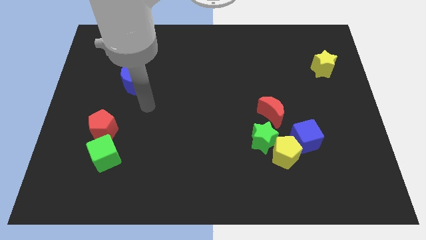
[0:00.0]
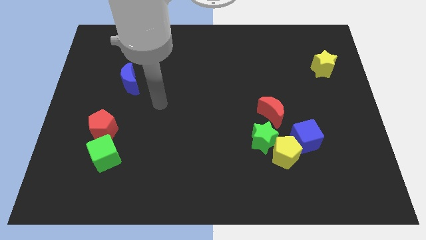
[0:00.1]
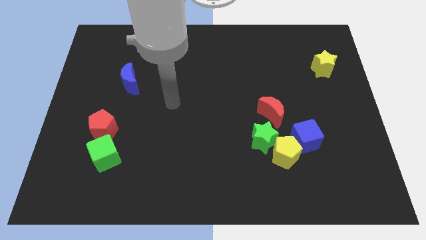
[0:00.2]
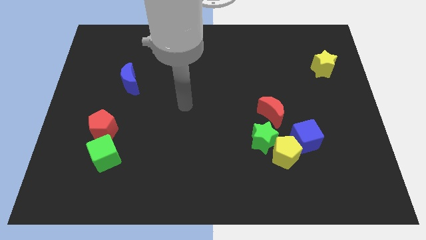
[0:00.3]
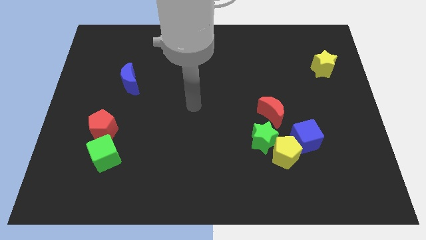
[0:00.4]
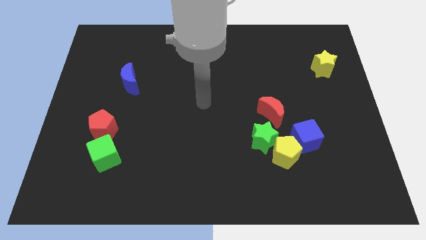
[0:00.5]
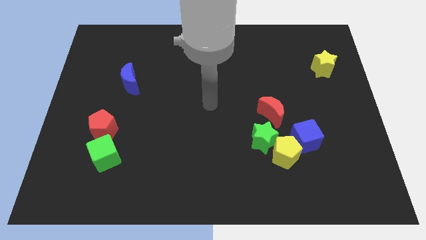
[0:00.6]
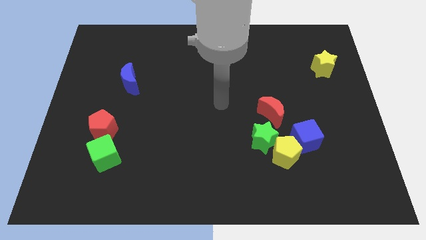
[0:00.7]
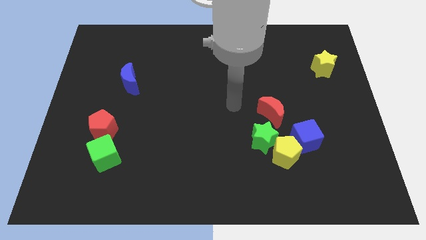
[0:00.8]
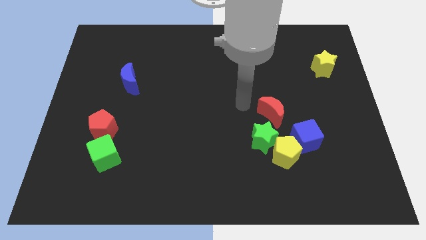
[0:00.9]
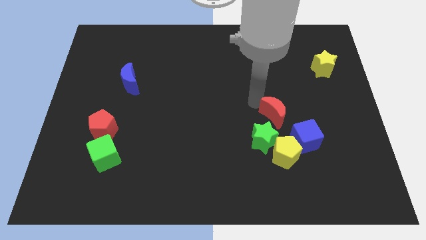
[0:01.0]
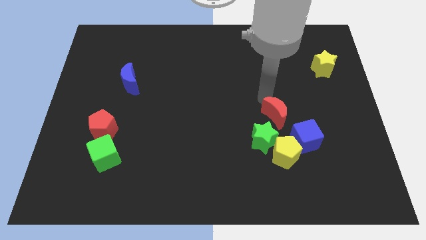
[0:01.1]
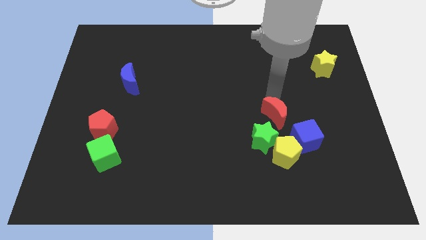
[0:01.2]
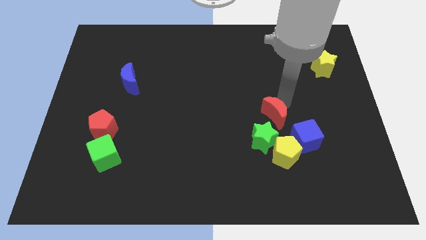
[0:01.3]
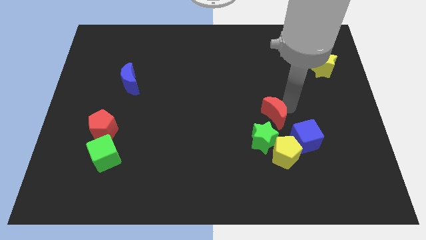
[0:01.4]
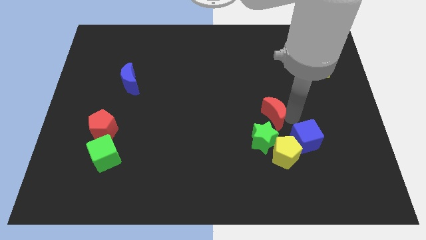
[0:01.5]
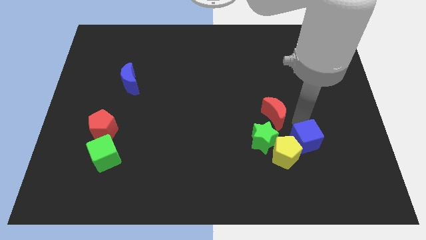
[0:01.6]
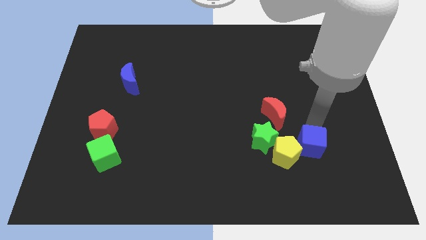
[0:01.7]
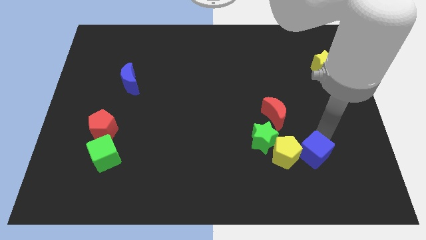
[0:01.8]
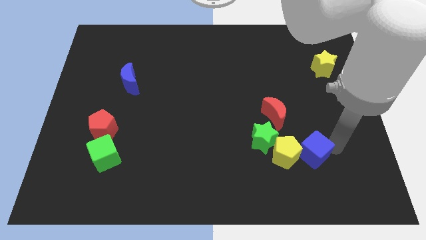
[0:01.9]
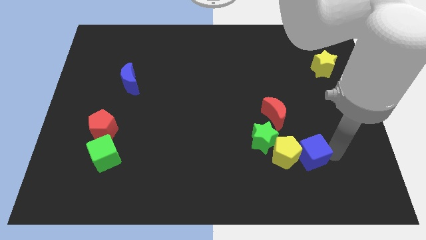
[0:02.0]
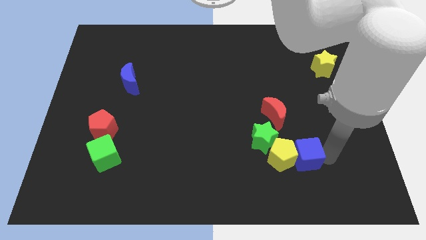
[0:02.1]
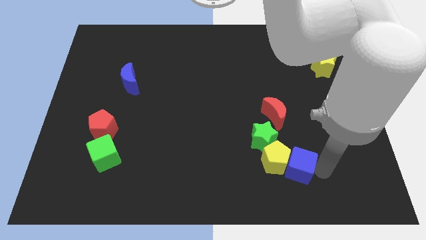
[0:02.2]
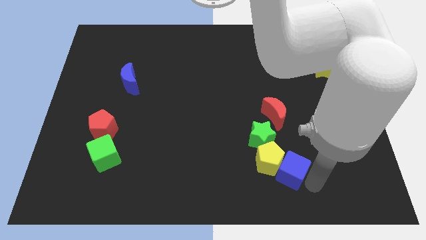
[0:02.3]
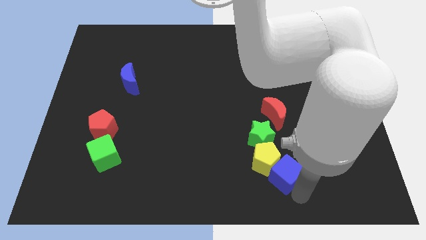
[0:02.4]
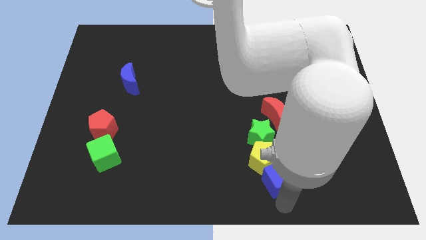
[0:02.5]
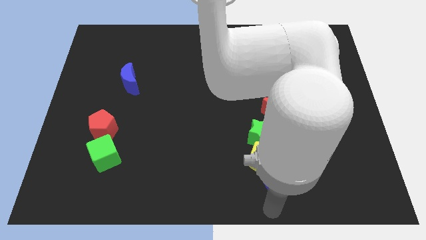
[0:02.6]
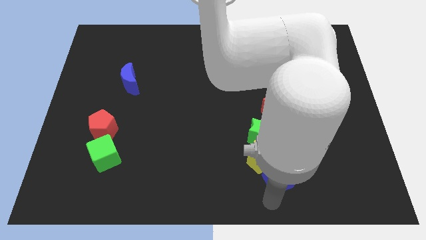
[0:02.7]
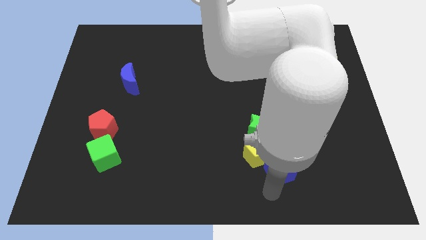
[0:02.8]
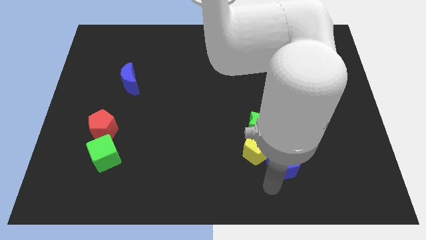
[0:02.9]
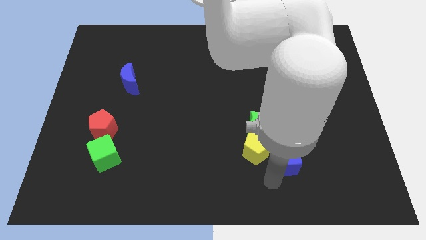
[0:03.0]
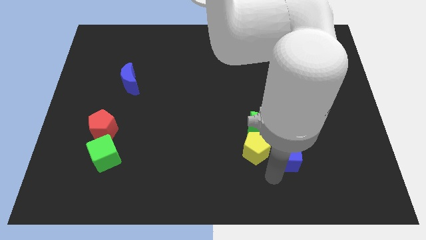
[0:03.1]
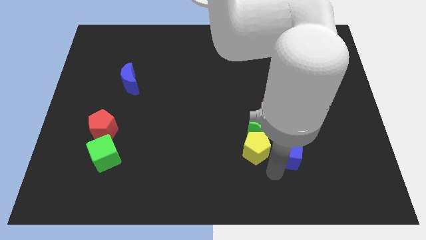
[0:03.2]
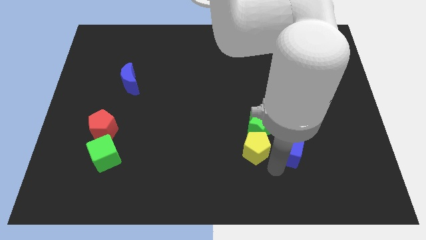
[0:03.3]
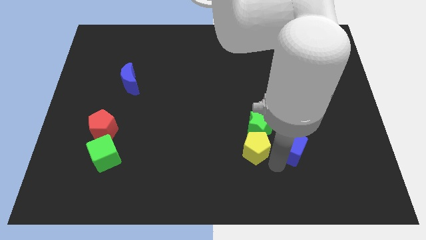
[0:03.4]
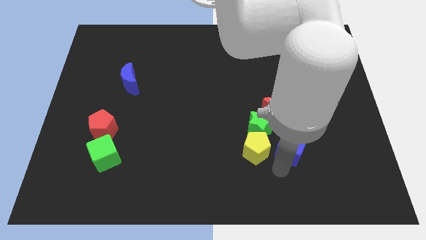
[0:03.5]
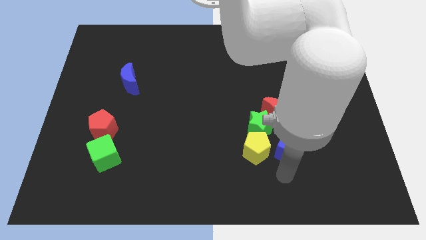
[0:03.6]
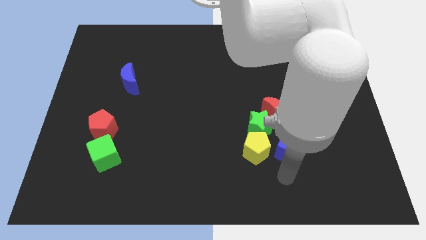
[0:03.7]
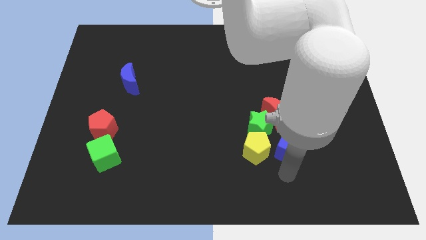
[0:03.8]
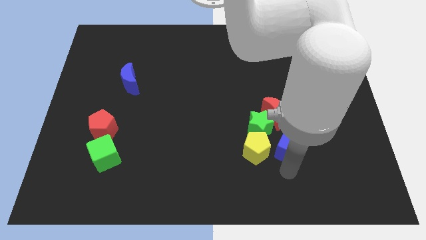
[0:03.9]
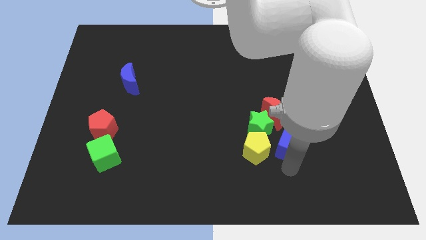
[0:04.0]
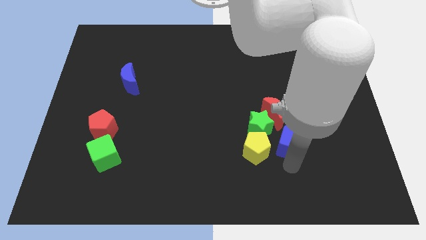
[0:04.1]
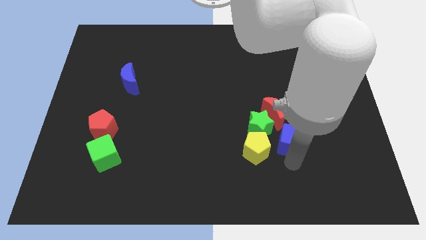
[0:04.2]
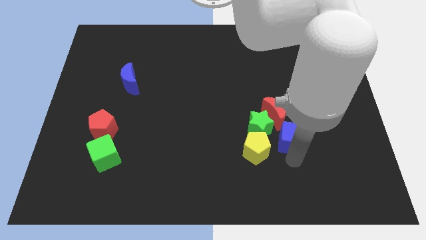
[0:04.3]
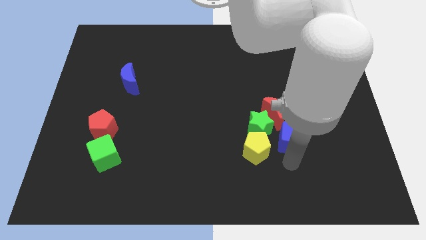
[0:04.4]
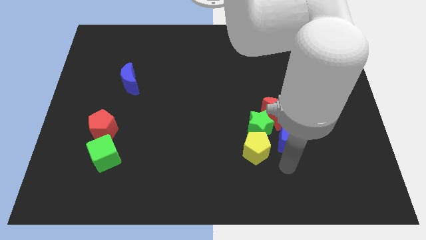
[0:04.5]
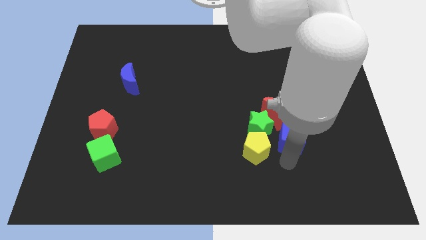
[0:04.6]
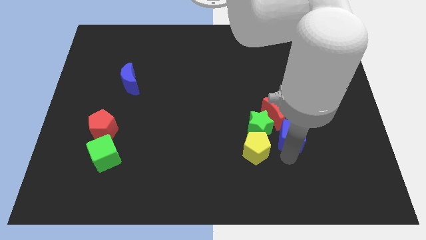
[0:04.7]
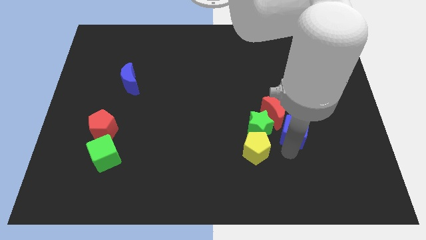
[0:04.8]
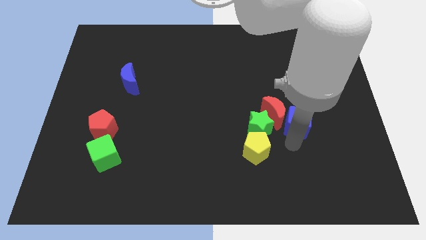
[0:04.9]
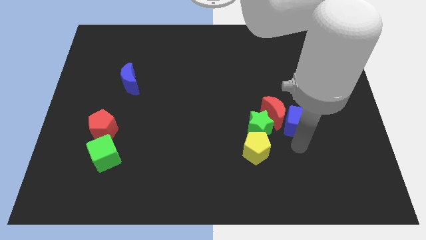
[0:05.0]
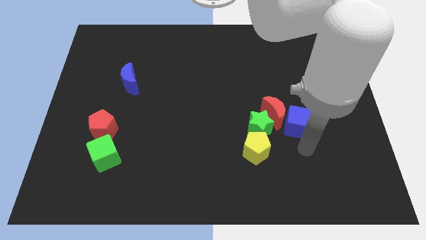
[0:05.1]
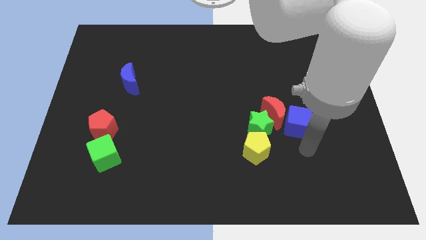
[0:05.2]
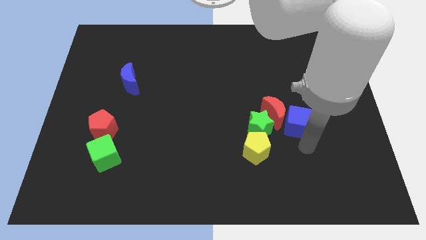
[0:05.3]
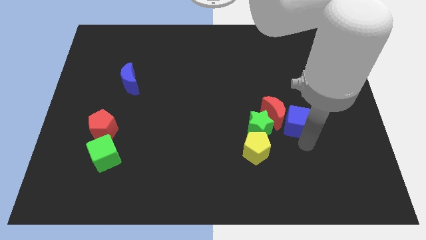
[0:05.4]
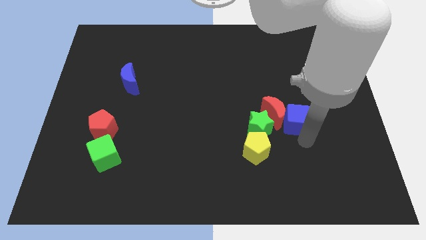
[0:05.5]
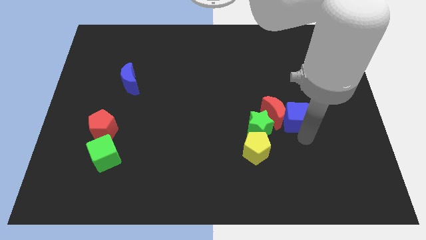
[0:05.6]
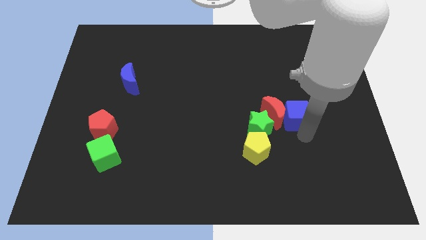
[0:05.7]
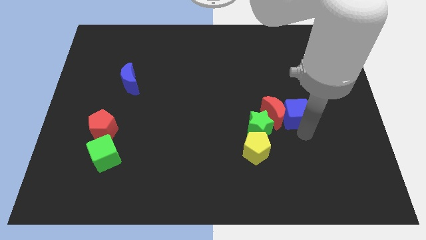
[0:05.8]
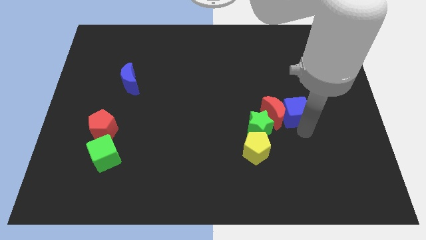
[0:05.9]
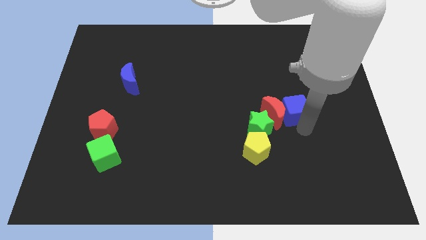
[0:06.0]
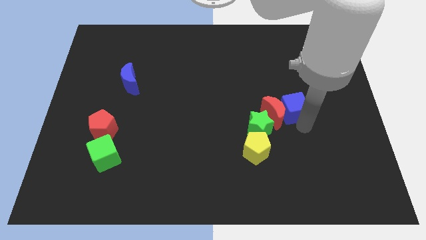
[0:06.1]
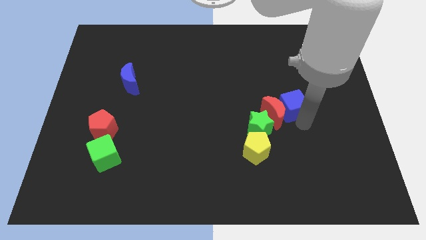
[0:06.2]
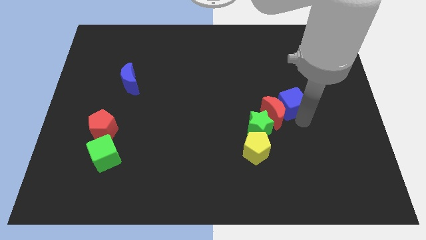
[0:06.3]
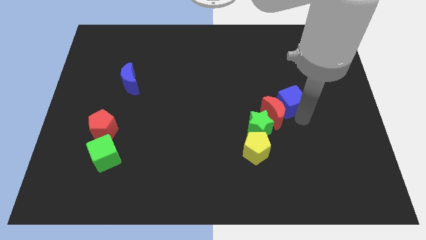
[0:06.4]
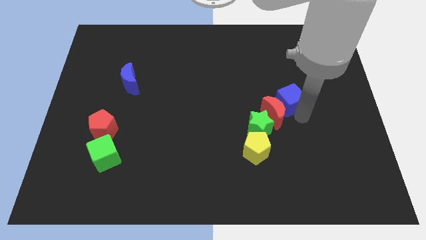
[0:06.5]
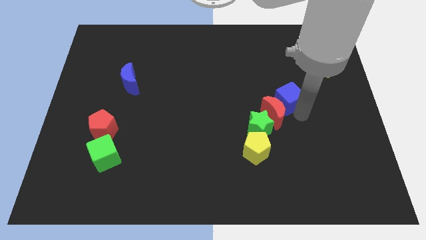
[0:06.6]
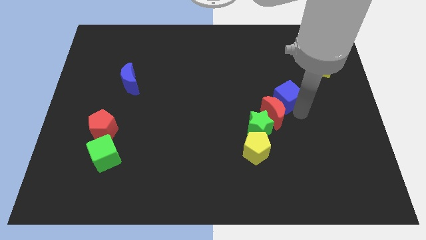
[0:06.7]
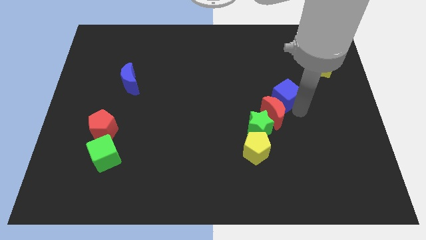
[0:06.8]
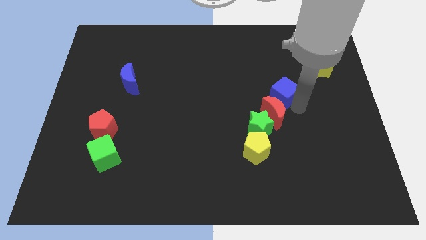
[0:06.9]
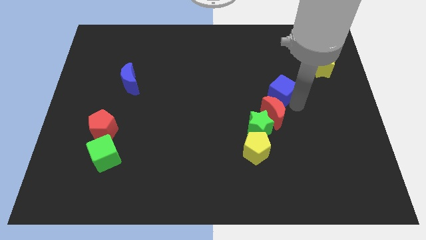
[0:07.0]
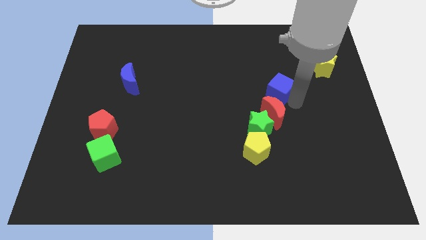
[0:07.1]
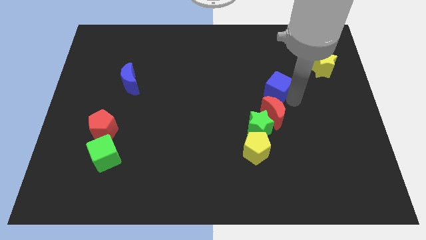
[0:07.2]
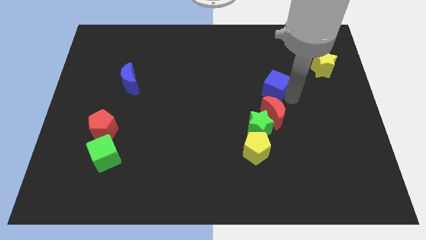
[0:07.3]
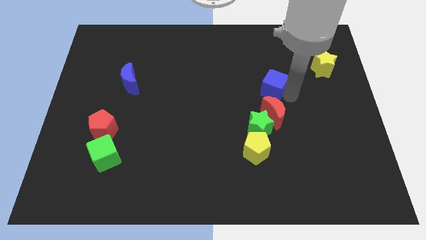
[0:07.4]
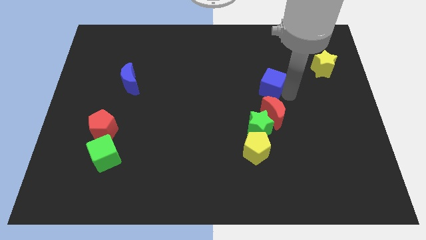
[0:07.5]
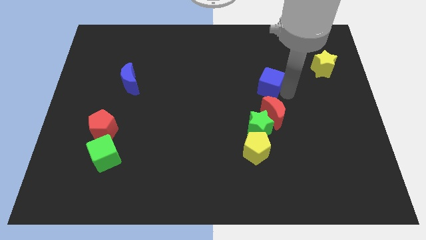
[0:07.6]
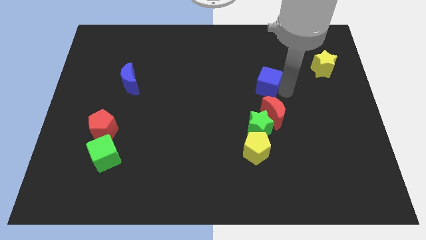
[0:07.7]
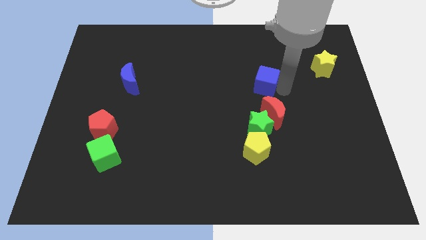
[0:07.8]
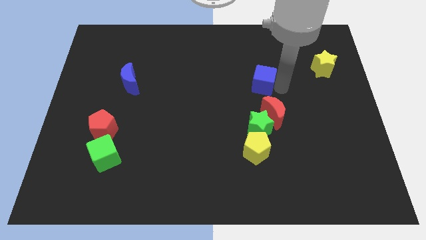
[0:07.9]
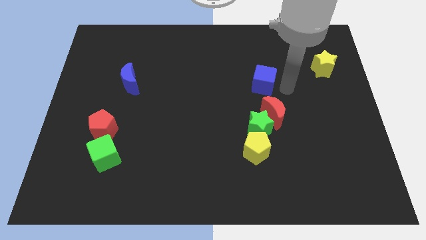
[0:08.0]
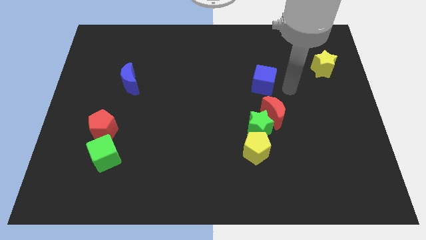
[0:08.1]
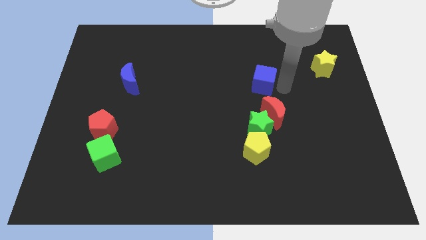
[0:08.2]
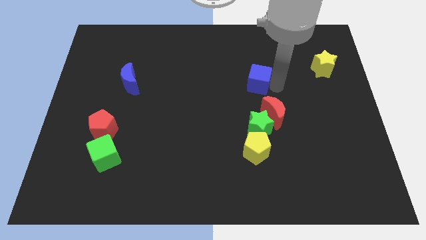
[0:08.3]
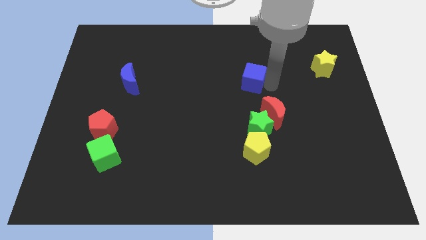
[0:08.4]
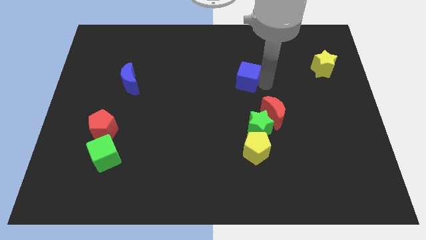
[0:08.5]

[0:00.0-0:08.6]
move the blue cube upwards and then left
